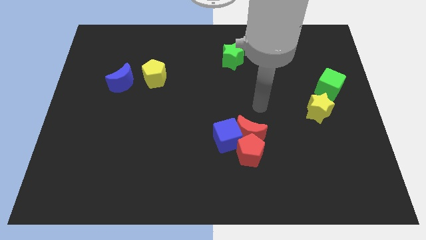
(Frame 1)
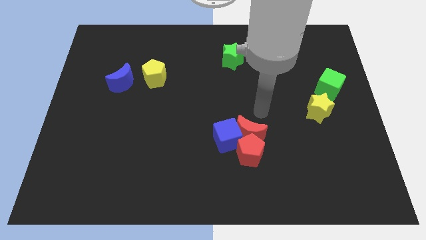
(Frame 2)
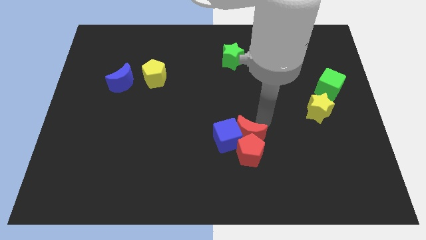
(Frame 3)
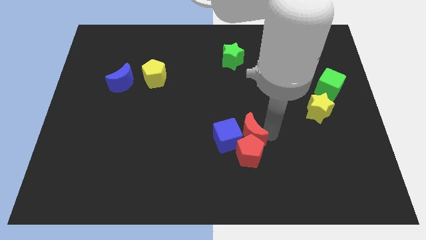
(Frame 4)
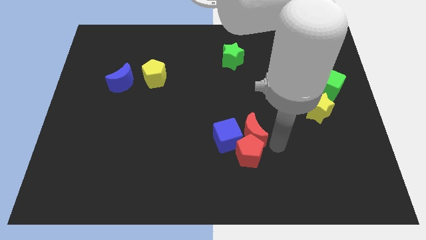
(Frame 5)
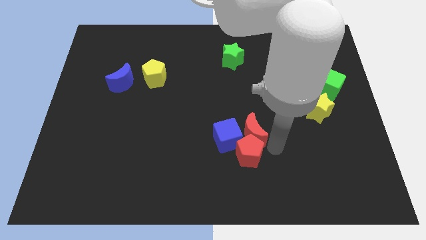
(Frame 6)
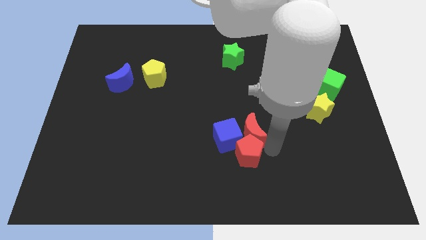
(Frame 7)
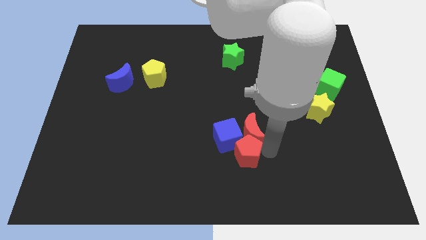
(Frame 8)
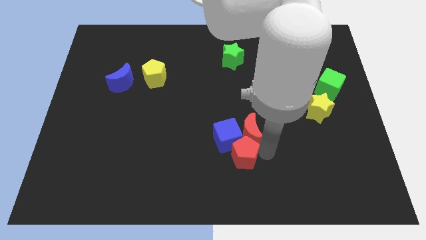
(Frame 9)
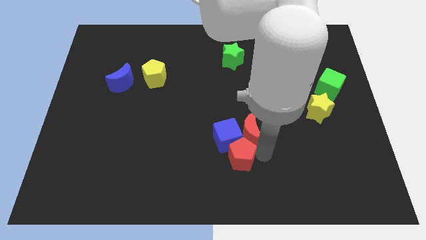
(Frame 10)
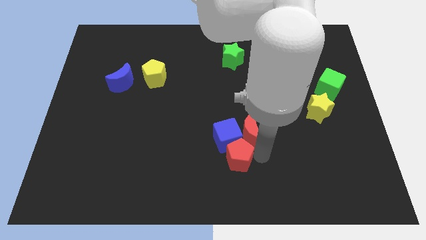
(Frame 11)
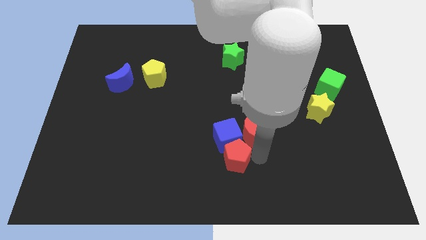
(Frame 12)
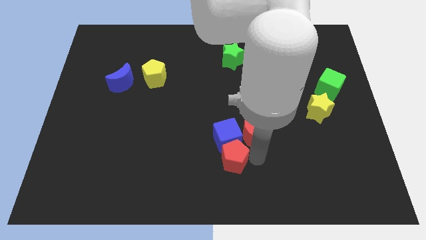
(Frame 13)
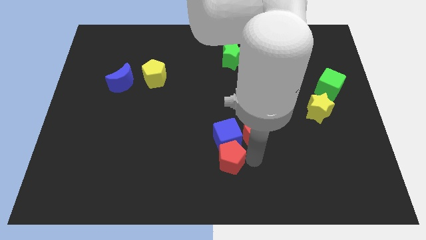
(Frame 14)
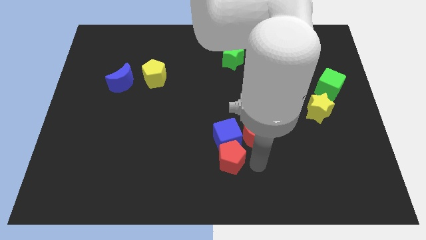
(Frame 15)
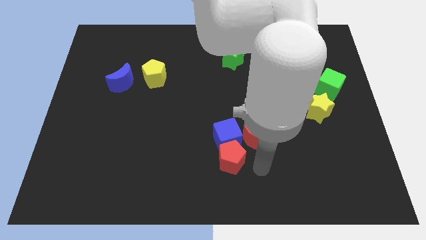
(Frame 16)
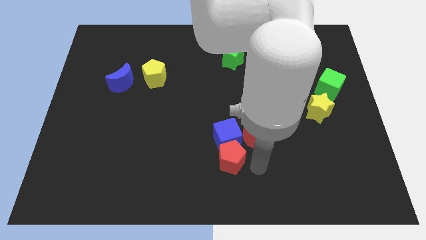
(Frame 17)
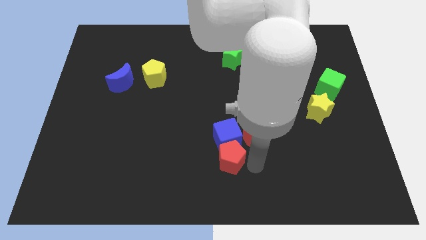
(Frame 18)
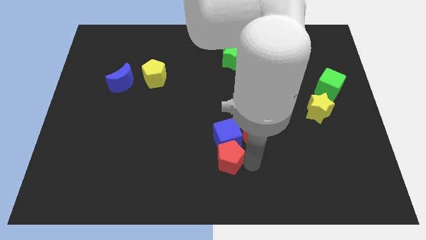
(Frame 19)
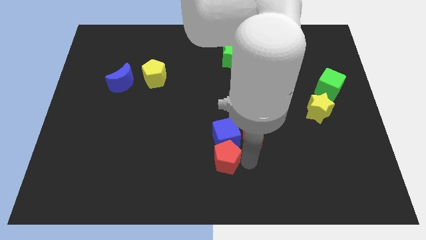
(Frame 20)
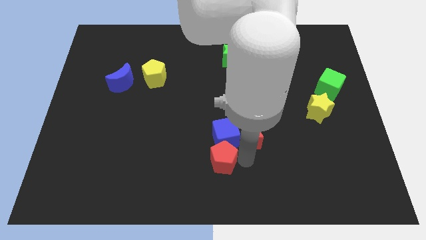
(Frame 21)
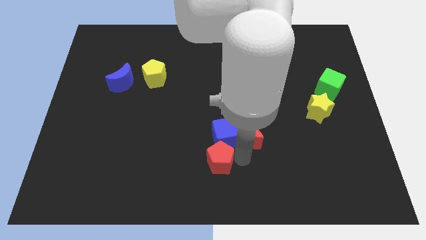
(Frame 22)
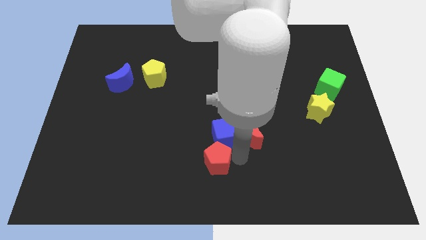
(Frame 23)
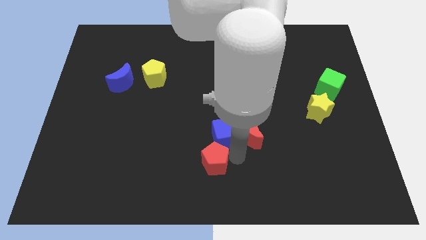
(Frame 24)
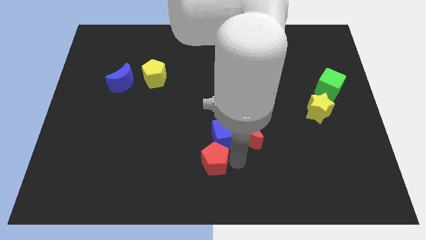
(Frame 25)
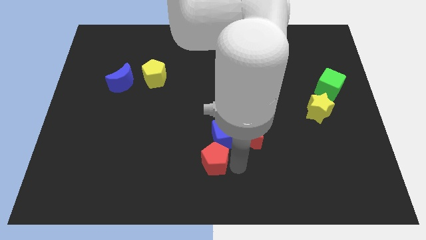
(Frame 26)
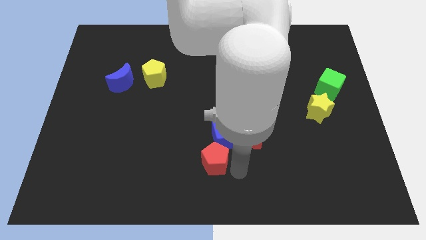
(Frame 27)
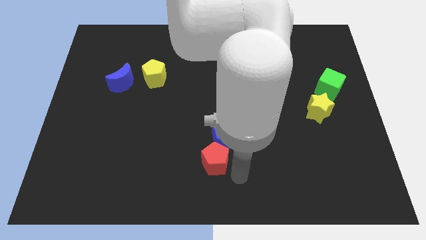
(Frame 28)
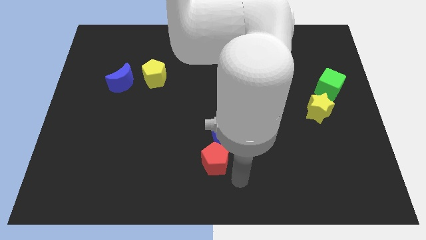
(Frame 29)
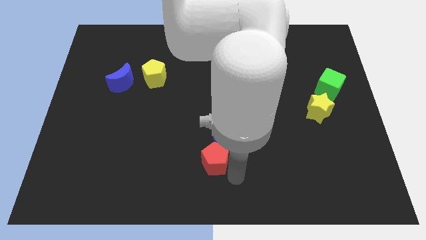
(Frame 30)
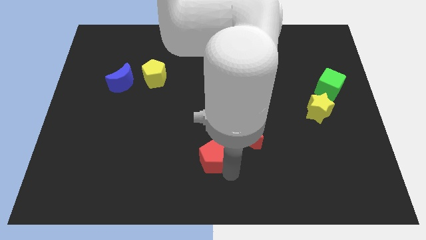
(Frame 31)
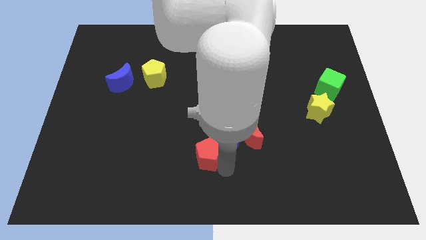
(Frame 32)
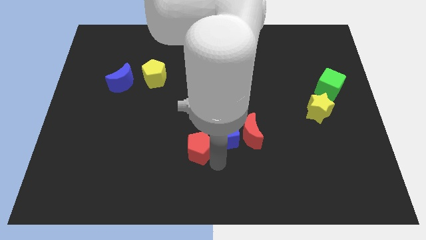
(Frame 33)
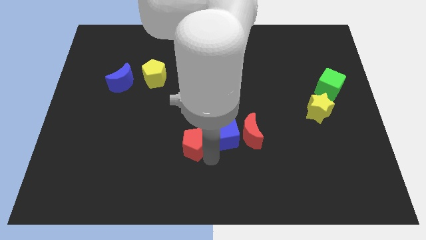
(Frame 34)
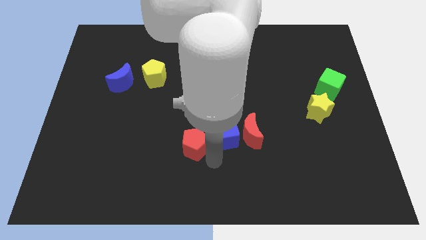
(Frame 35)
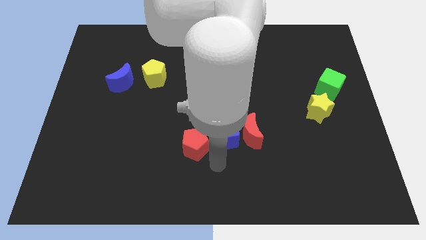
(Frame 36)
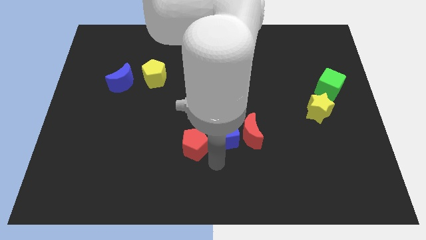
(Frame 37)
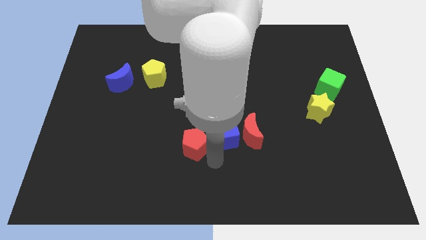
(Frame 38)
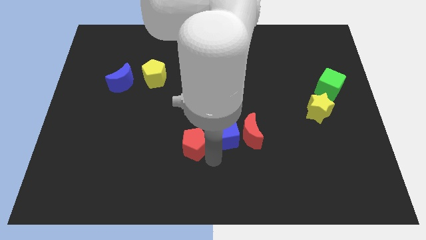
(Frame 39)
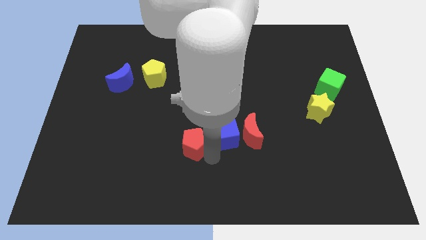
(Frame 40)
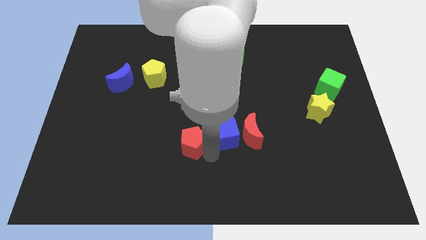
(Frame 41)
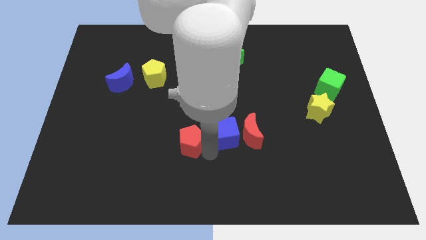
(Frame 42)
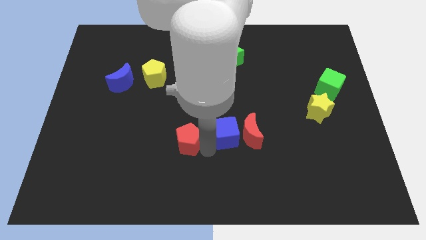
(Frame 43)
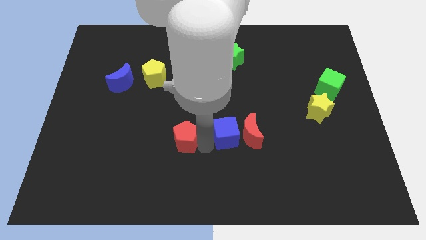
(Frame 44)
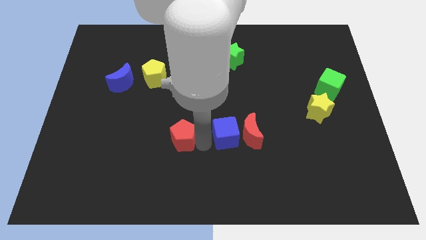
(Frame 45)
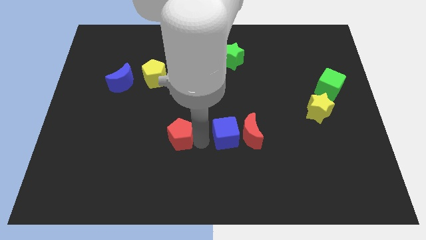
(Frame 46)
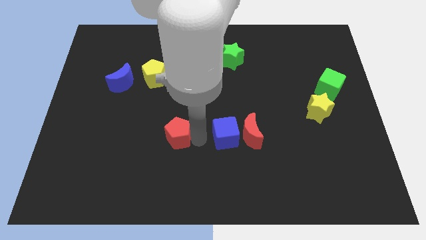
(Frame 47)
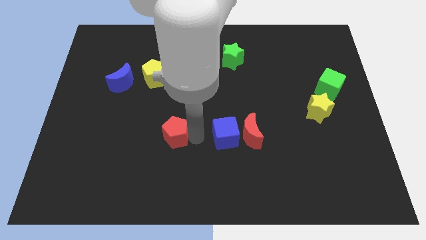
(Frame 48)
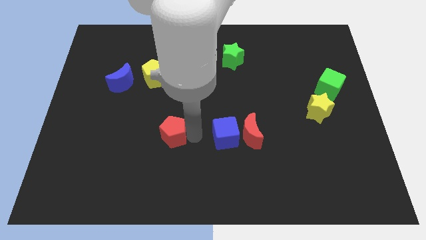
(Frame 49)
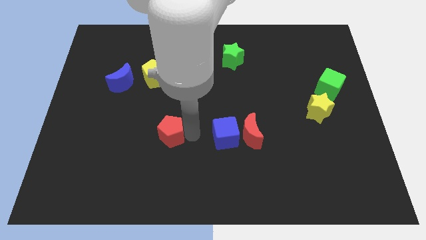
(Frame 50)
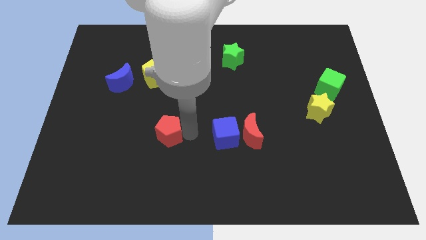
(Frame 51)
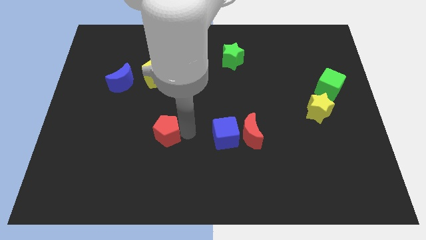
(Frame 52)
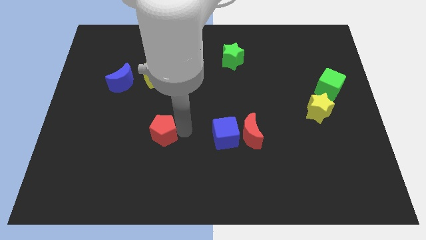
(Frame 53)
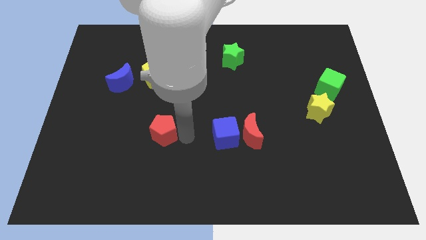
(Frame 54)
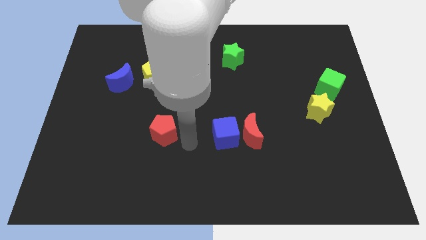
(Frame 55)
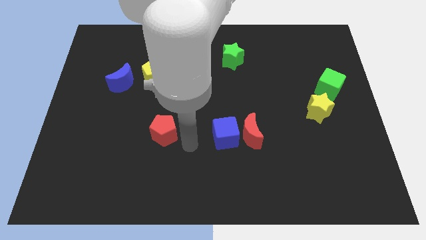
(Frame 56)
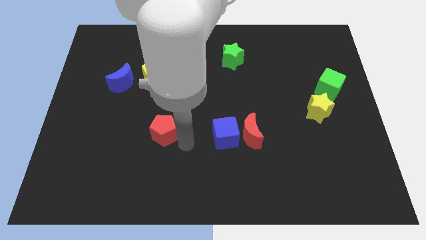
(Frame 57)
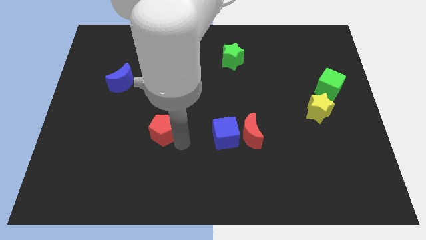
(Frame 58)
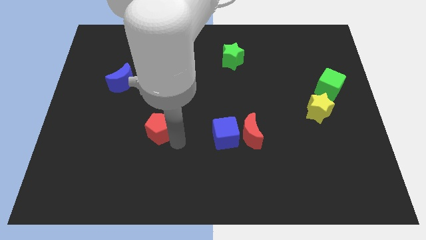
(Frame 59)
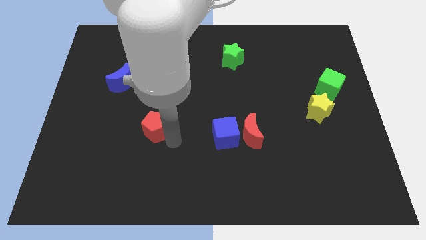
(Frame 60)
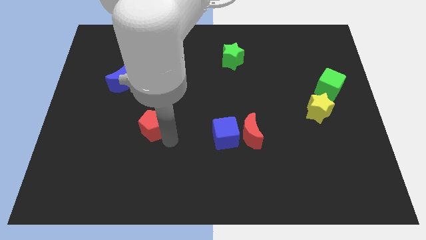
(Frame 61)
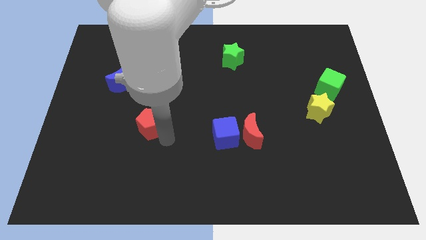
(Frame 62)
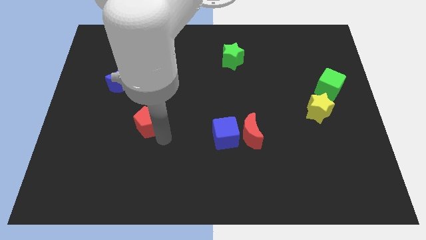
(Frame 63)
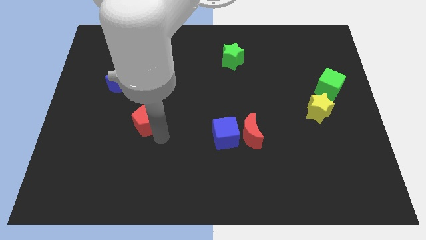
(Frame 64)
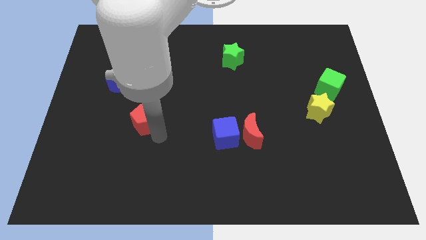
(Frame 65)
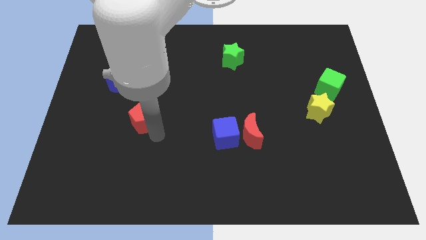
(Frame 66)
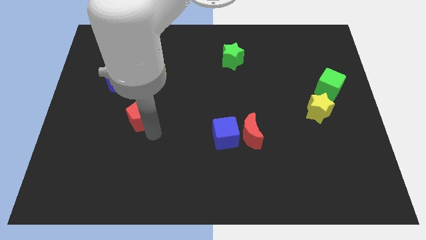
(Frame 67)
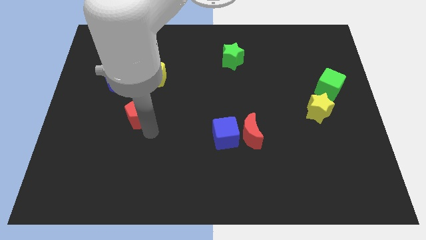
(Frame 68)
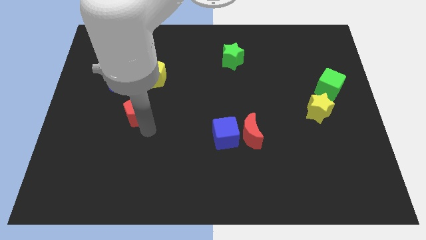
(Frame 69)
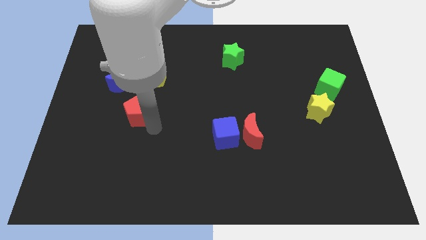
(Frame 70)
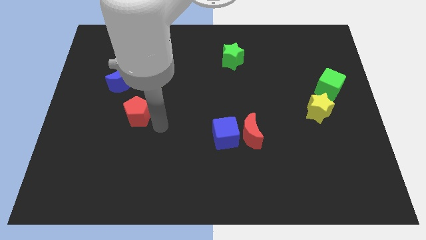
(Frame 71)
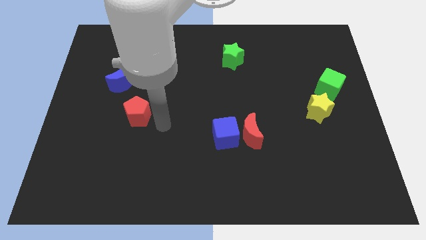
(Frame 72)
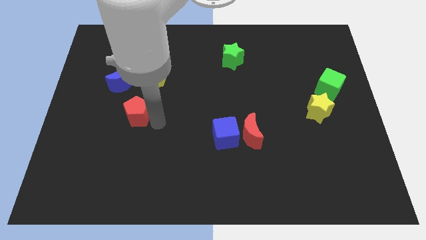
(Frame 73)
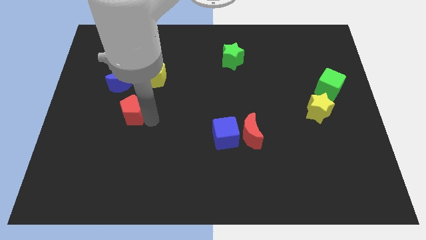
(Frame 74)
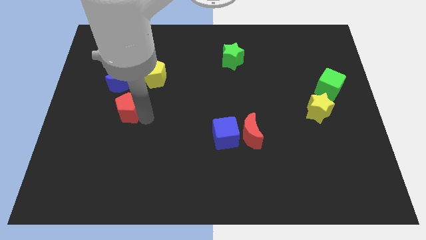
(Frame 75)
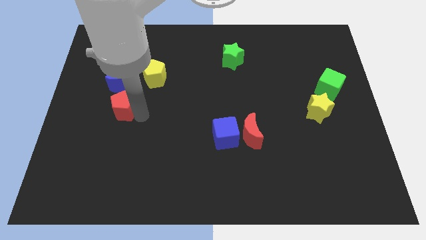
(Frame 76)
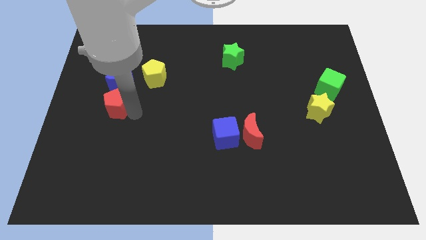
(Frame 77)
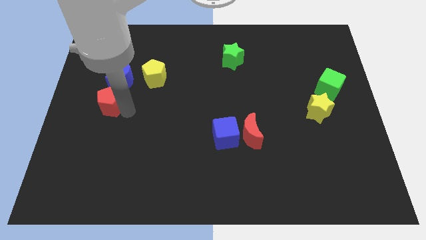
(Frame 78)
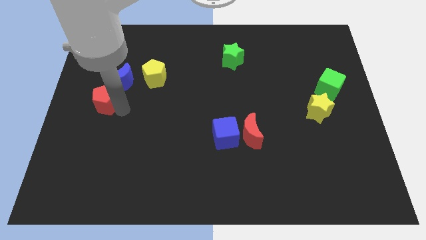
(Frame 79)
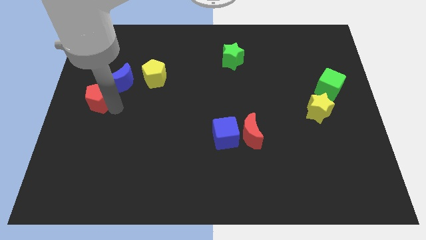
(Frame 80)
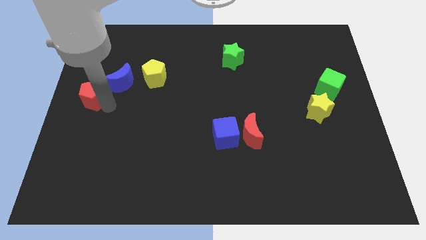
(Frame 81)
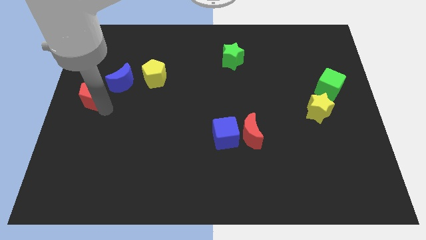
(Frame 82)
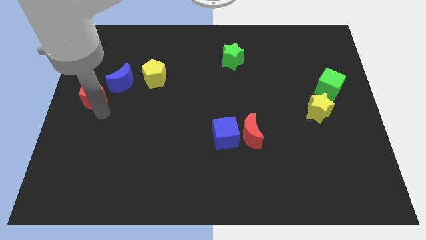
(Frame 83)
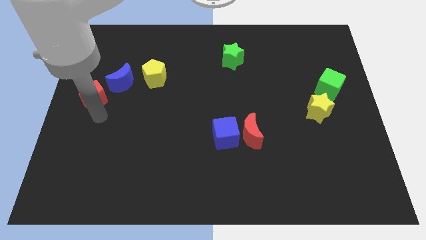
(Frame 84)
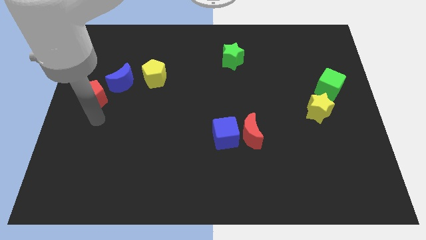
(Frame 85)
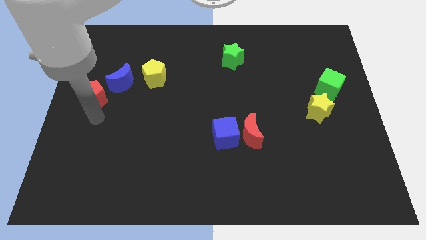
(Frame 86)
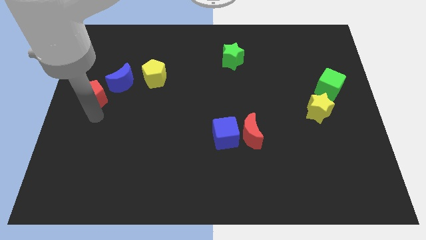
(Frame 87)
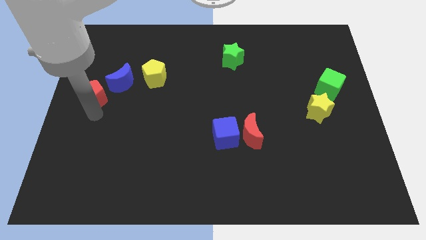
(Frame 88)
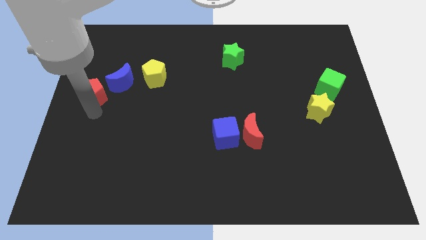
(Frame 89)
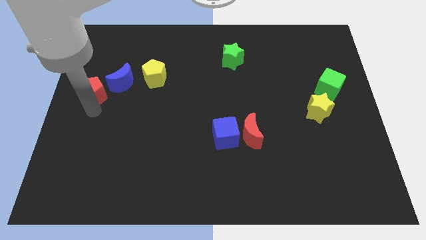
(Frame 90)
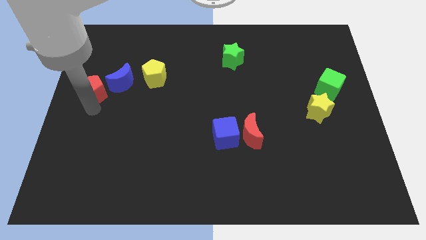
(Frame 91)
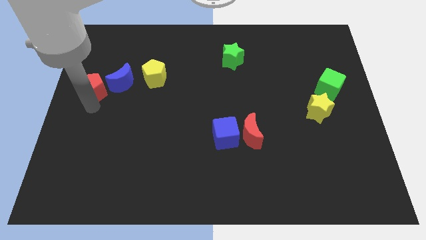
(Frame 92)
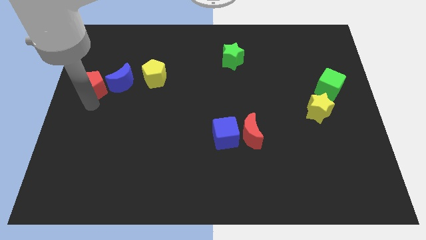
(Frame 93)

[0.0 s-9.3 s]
push the red pentagon left of the yellow pentagon
